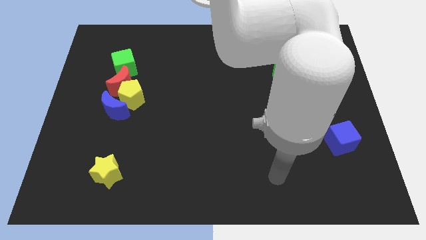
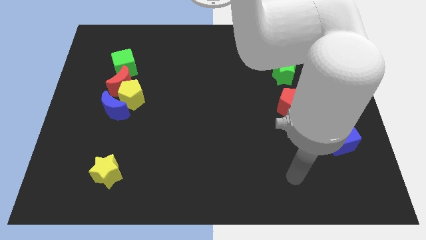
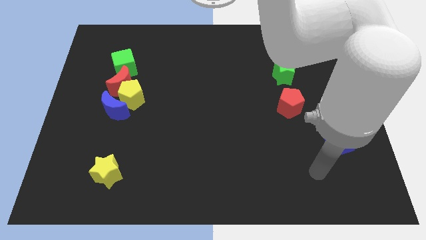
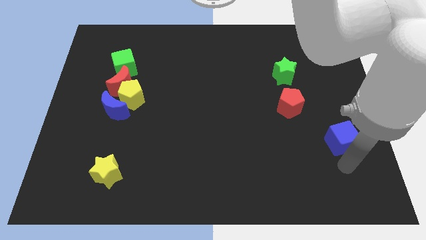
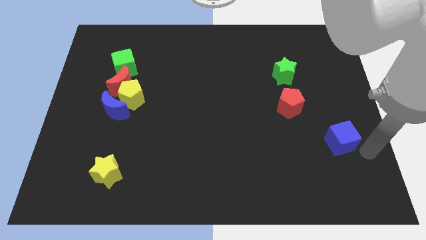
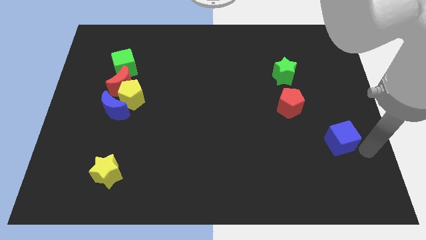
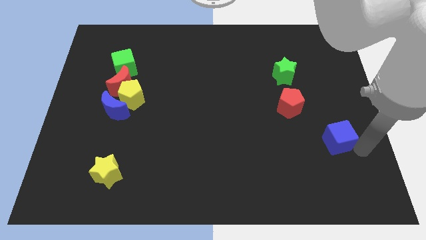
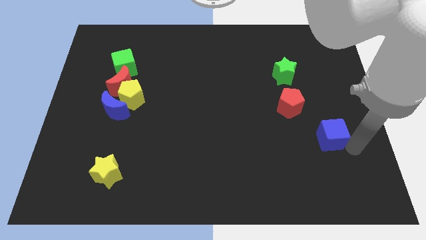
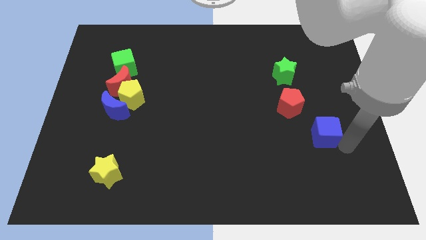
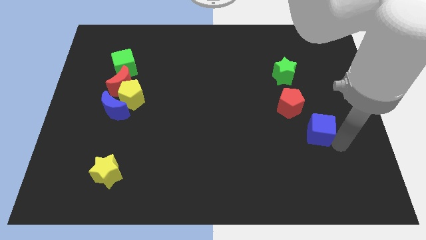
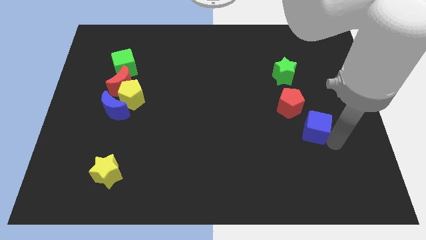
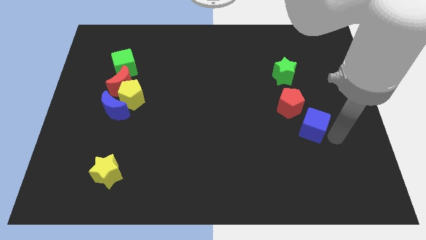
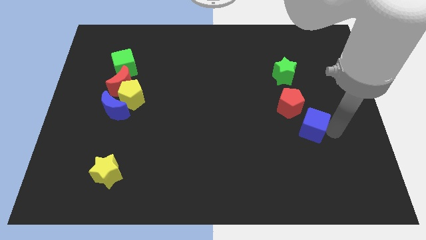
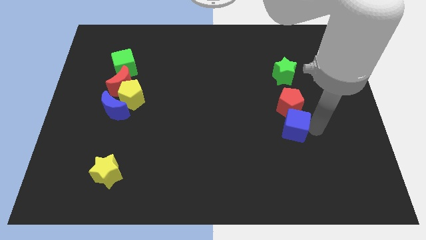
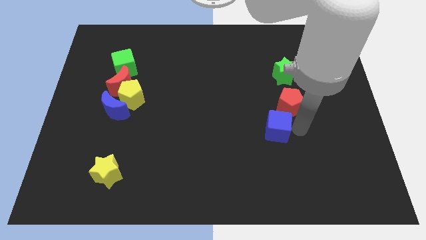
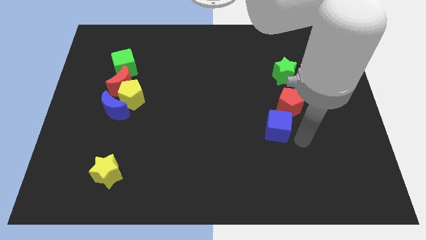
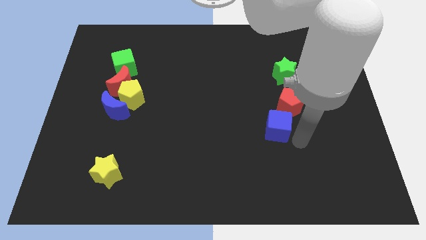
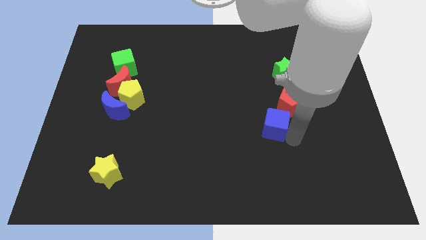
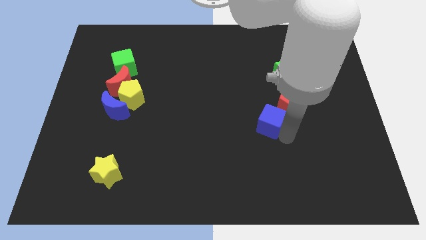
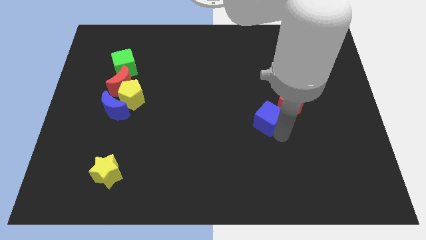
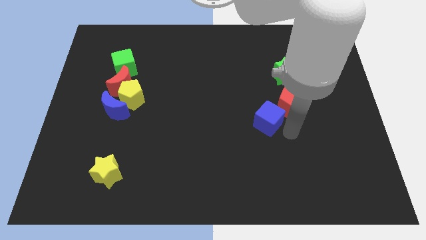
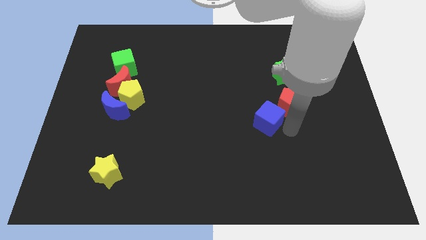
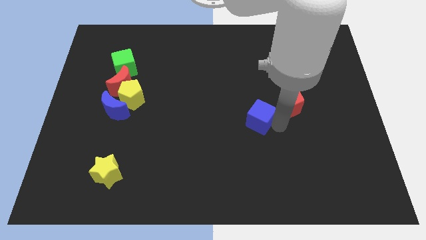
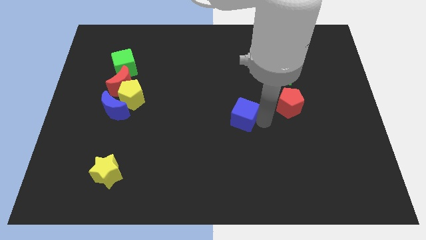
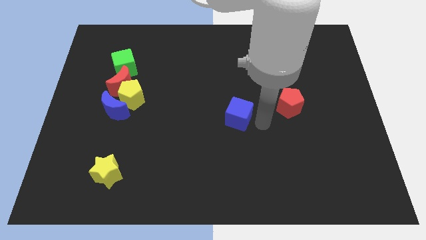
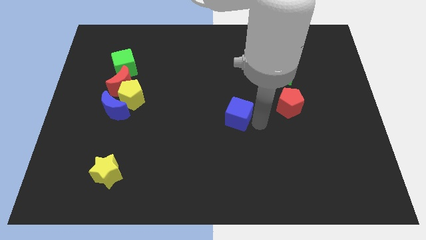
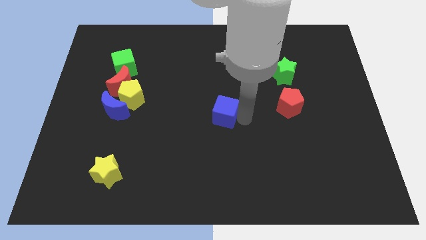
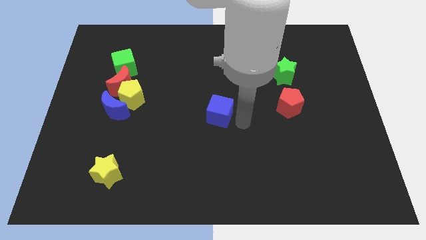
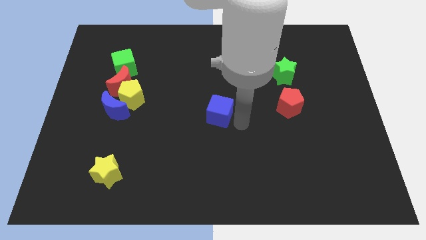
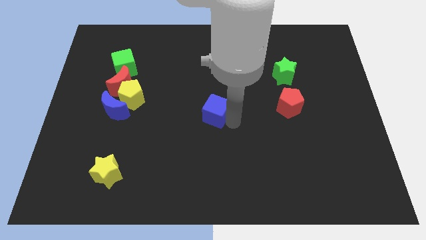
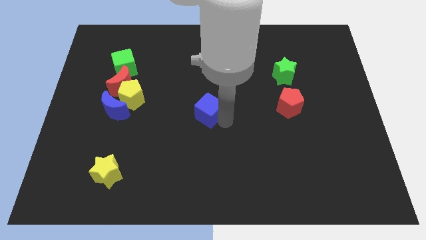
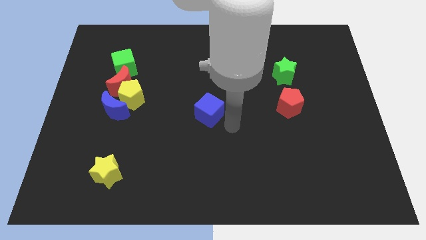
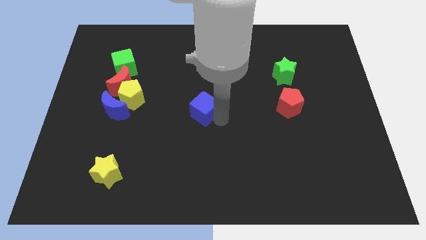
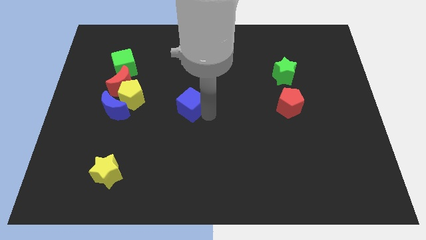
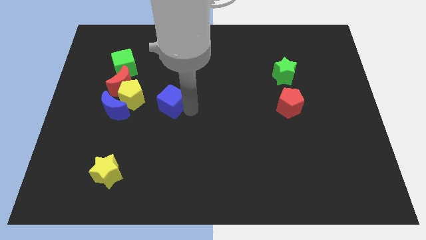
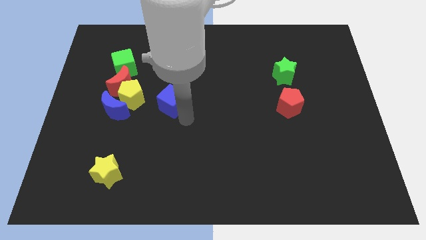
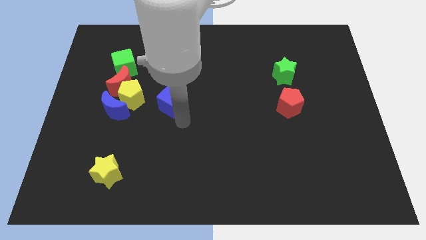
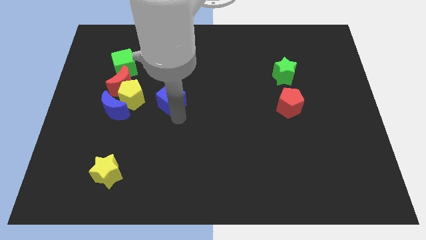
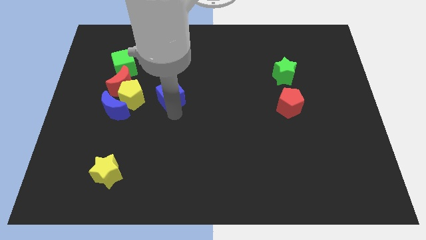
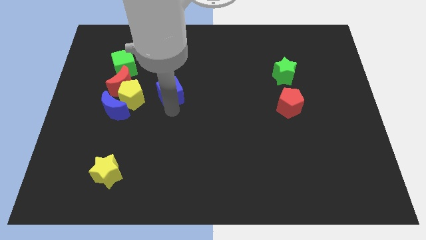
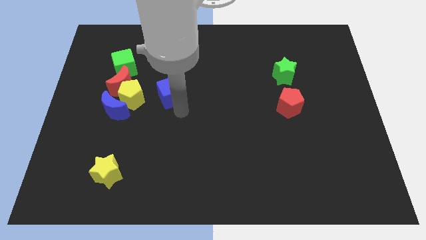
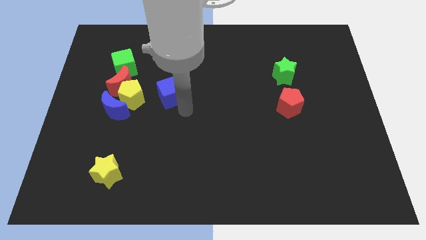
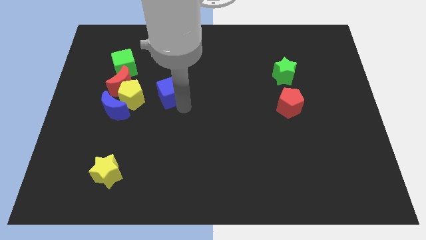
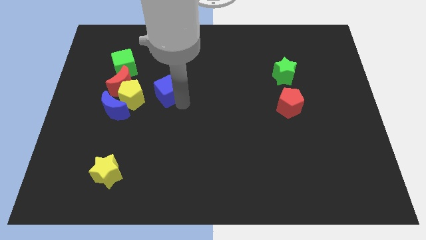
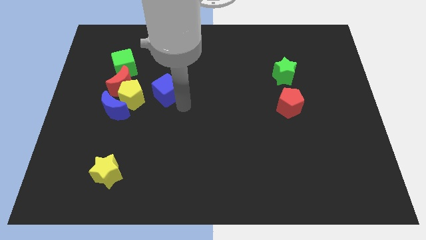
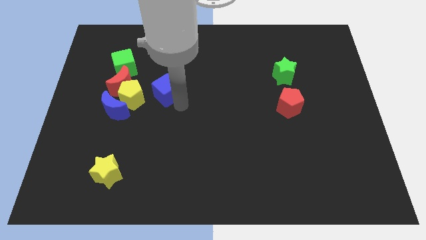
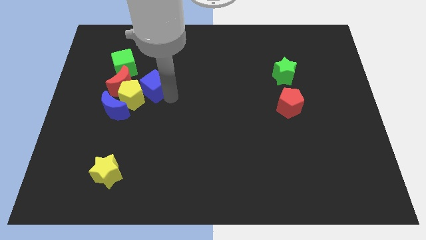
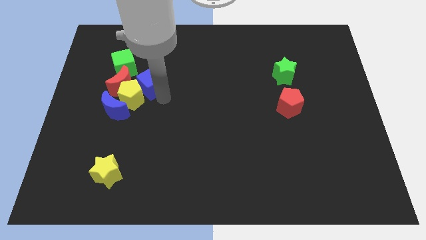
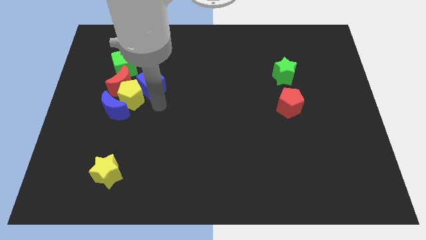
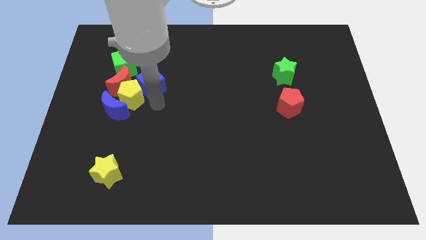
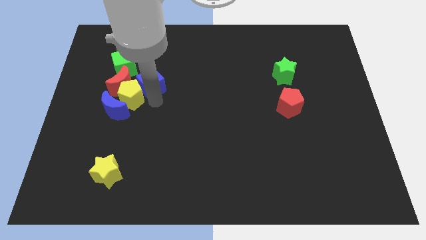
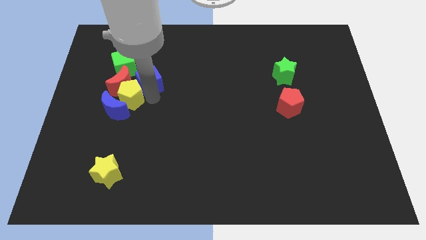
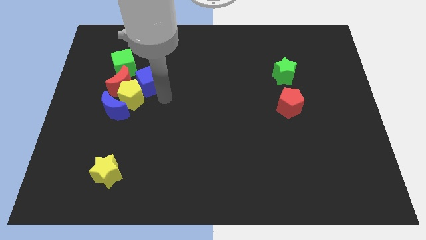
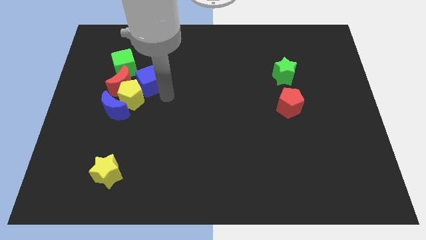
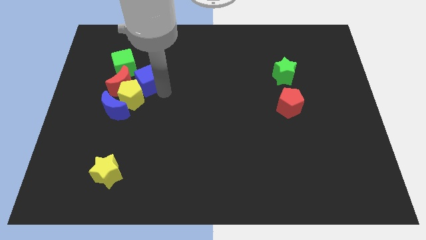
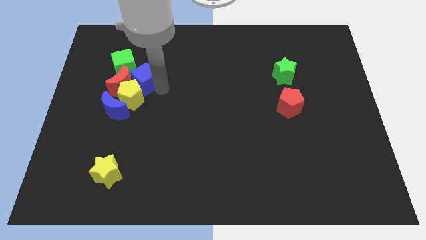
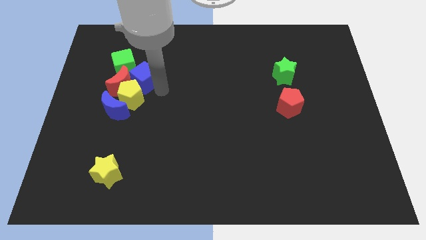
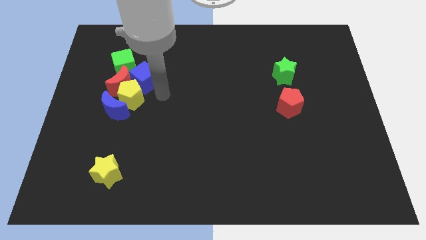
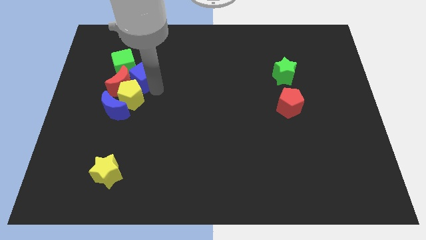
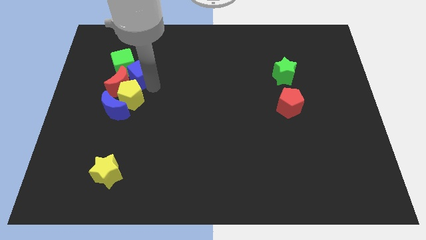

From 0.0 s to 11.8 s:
push the blue cube towards the green cube

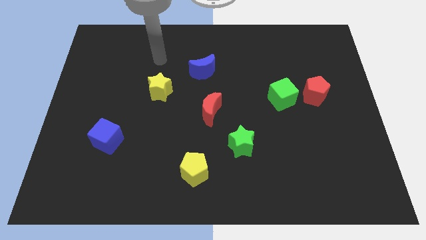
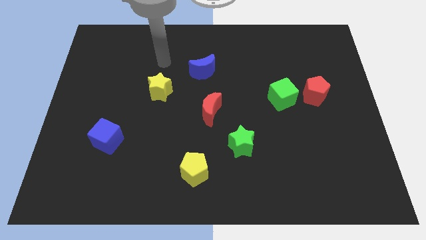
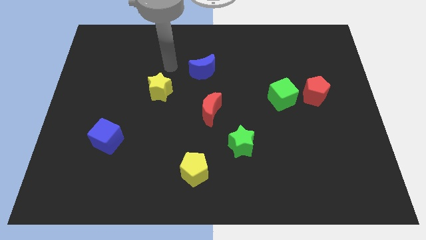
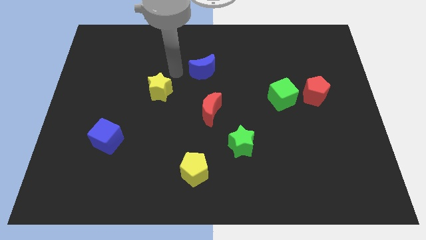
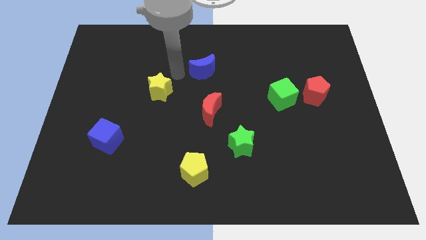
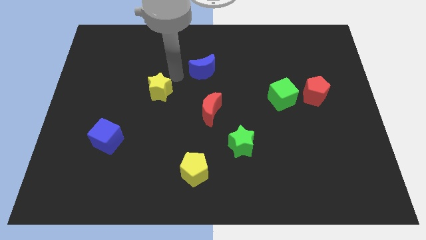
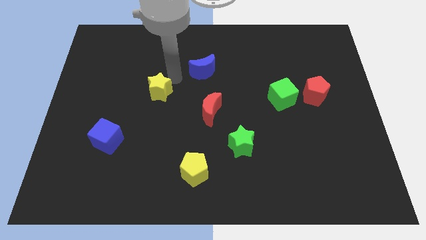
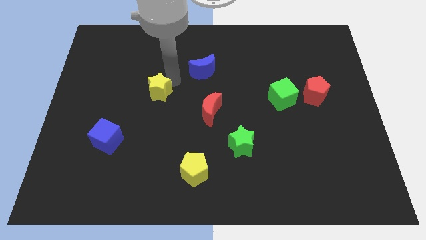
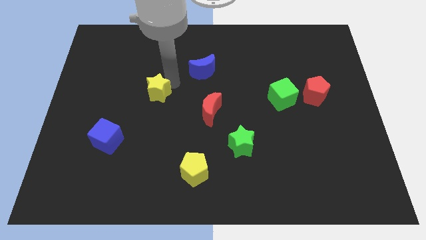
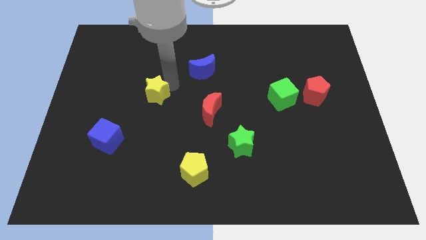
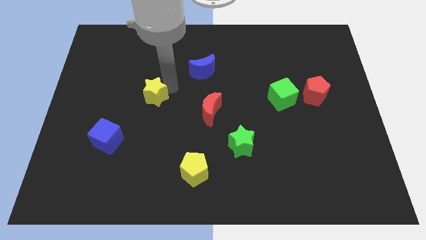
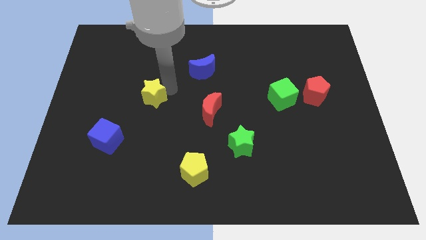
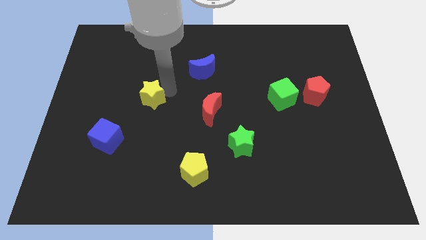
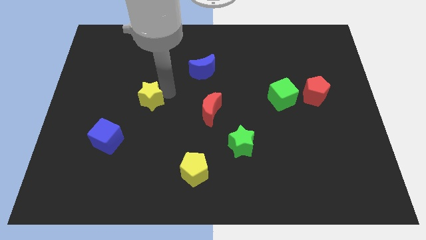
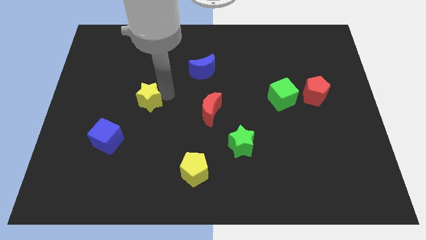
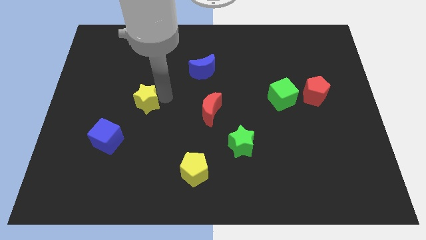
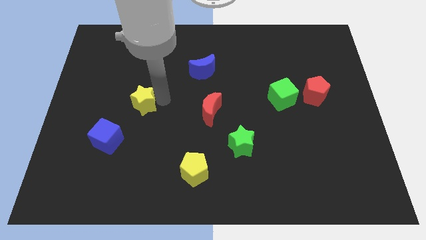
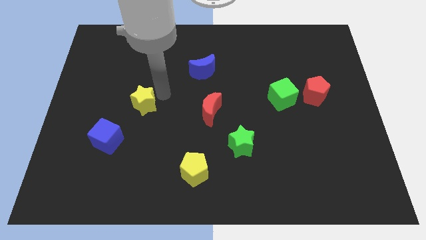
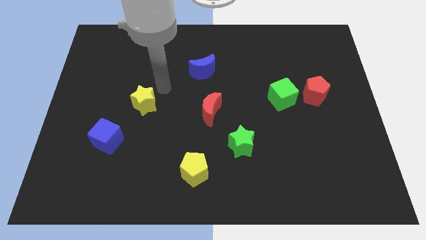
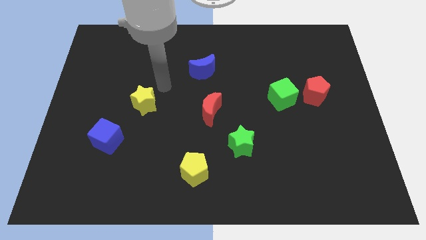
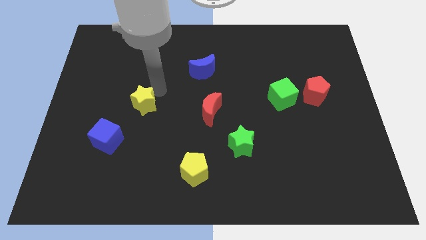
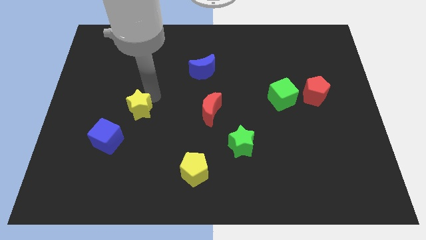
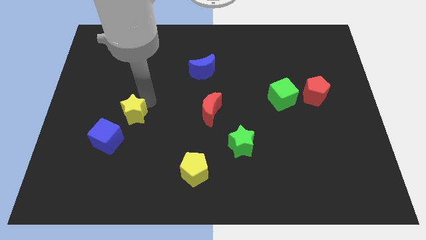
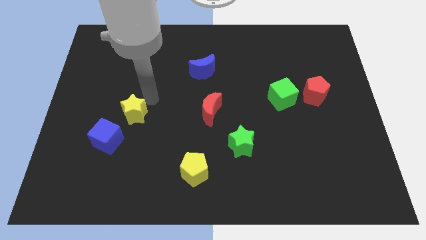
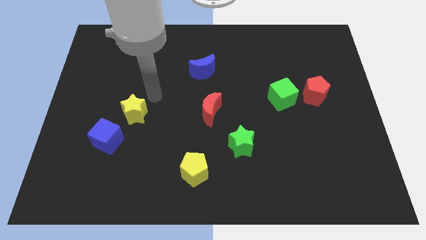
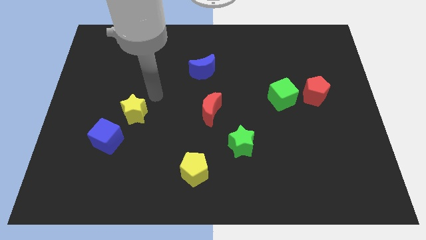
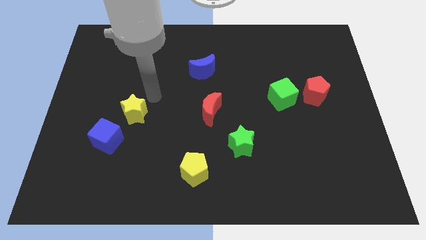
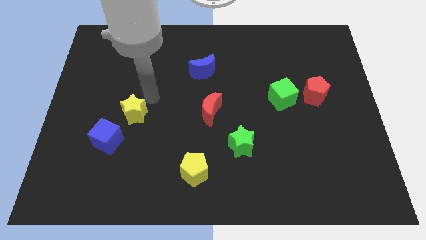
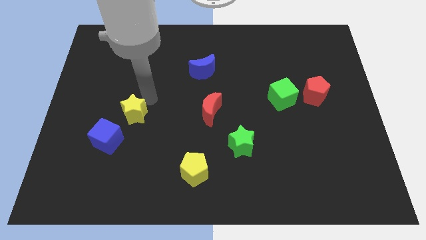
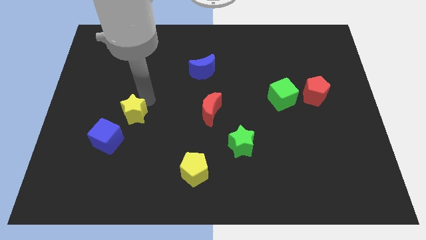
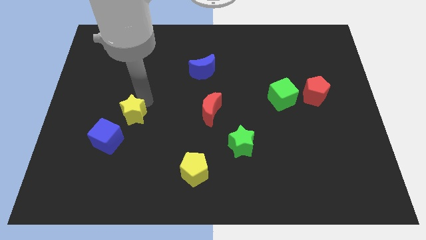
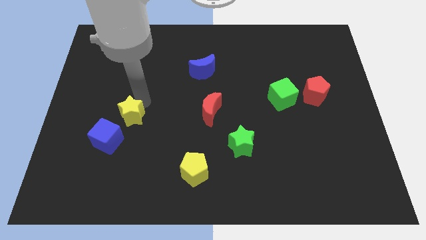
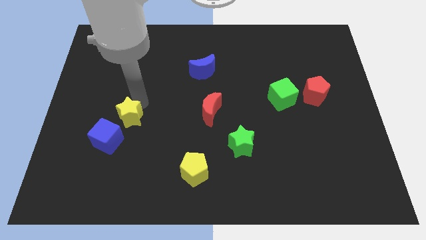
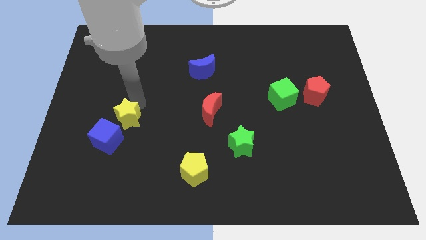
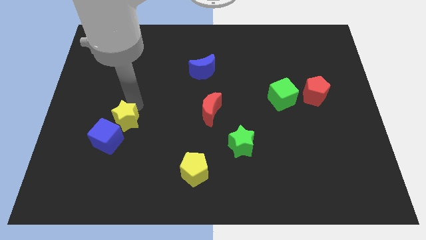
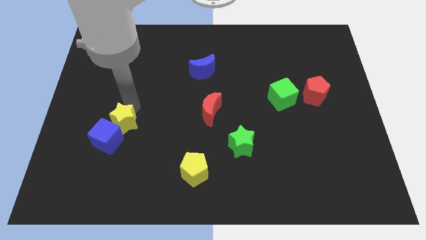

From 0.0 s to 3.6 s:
slide the yellow star next to the blue cube
